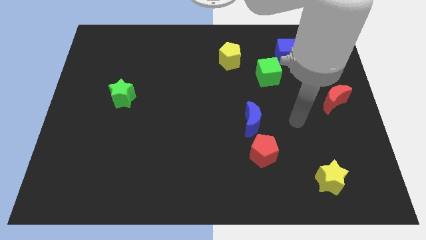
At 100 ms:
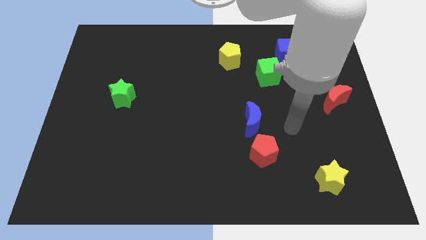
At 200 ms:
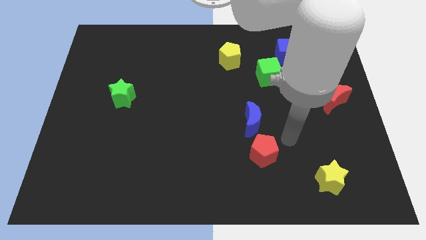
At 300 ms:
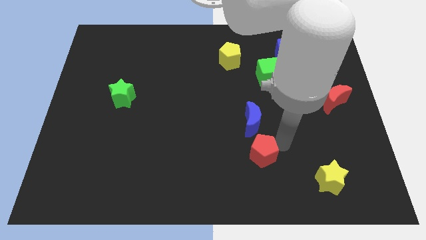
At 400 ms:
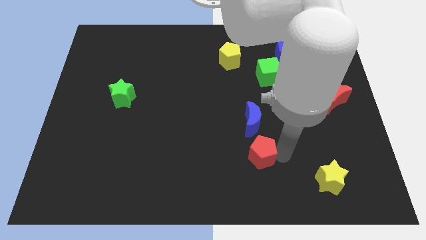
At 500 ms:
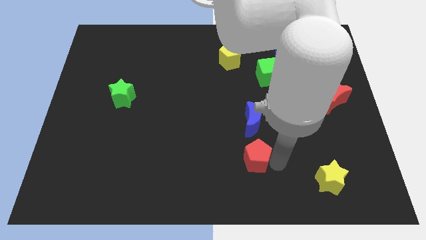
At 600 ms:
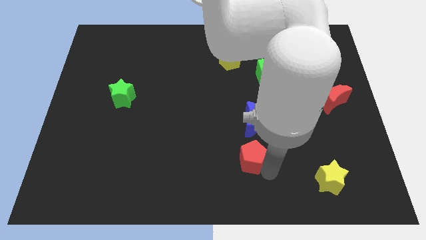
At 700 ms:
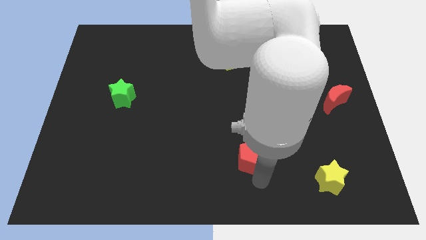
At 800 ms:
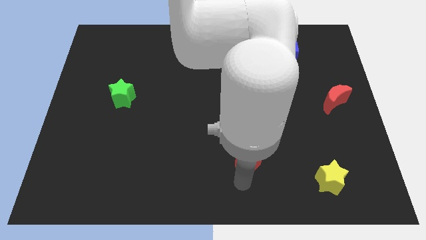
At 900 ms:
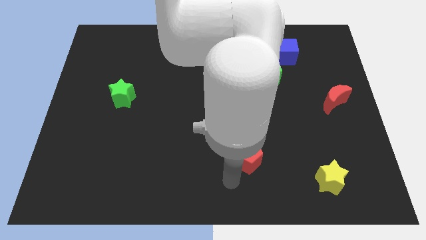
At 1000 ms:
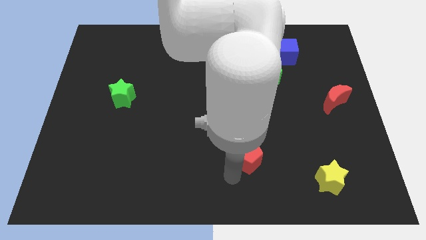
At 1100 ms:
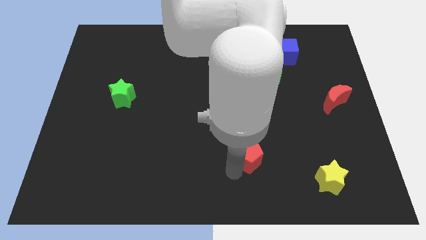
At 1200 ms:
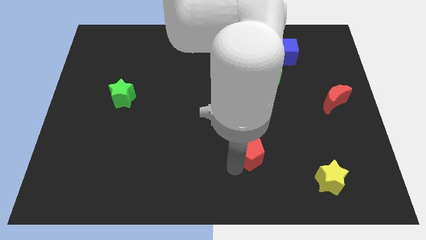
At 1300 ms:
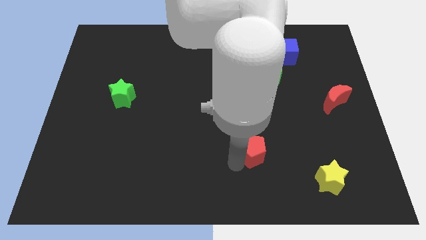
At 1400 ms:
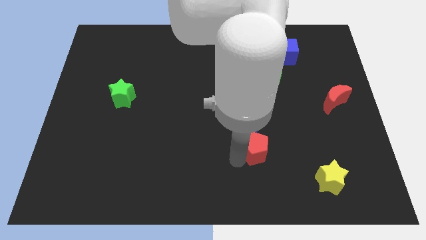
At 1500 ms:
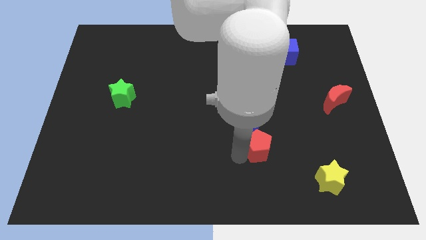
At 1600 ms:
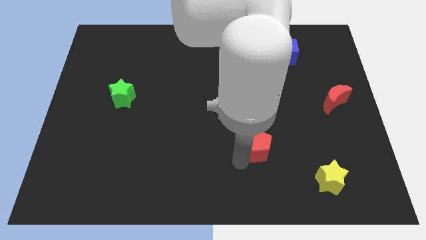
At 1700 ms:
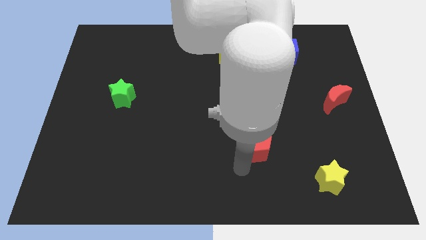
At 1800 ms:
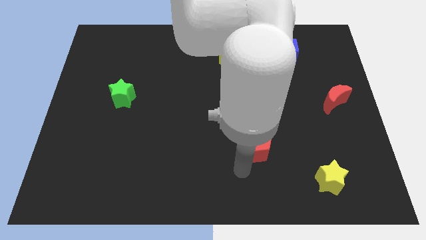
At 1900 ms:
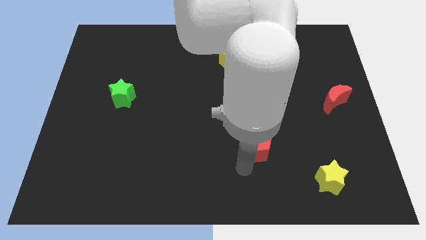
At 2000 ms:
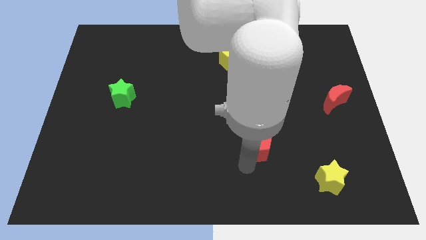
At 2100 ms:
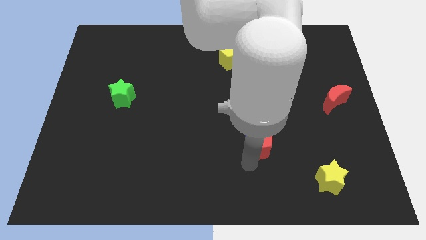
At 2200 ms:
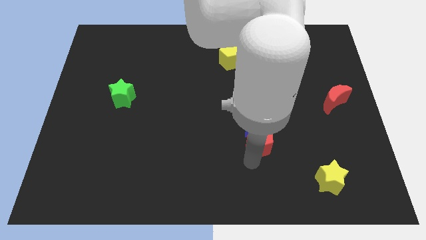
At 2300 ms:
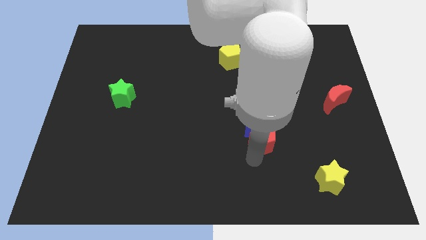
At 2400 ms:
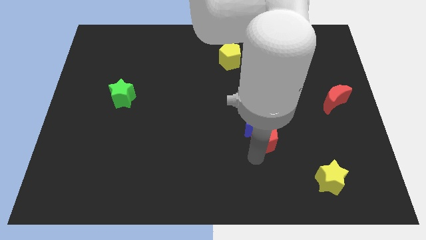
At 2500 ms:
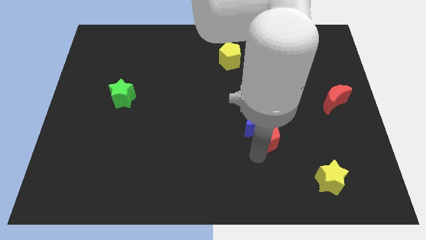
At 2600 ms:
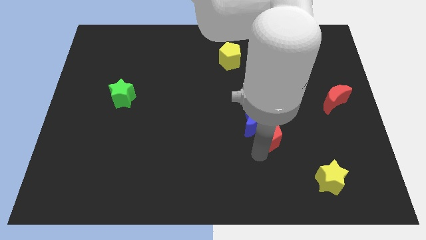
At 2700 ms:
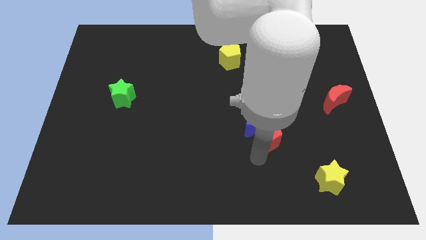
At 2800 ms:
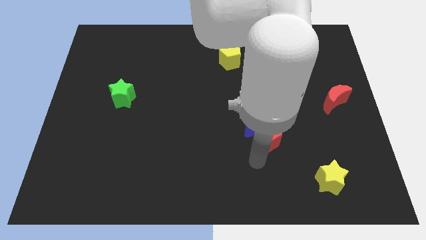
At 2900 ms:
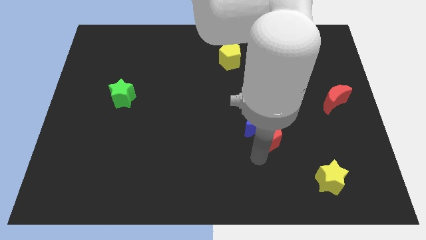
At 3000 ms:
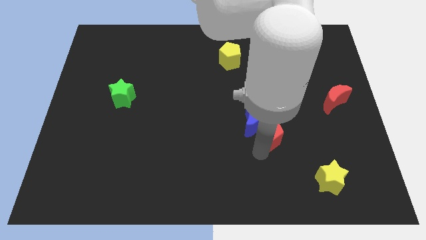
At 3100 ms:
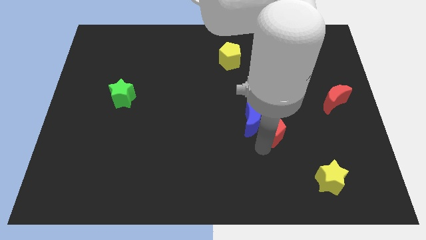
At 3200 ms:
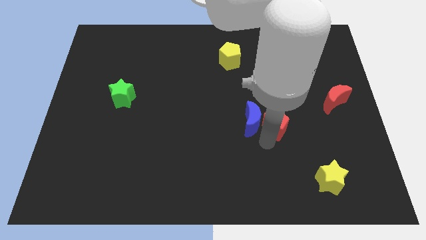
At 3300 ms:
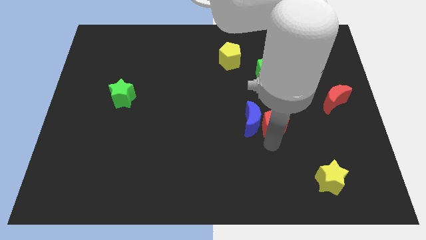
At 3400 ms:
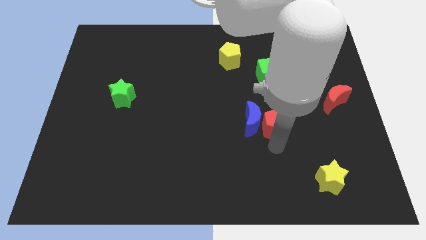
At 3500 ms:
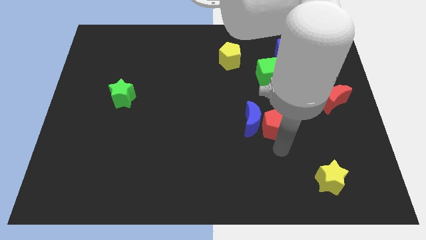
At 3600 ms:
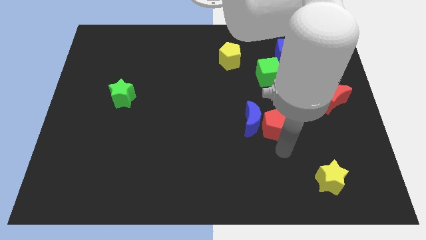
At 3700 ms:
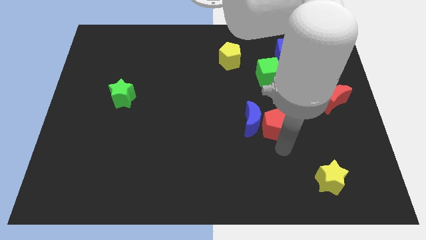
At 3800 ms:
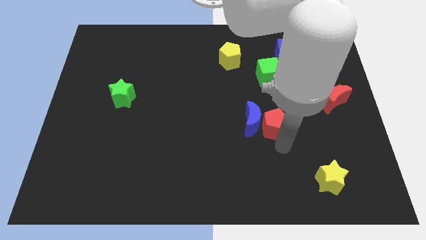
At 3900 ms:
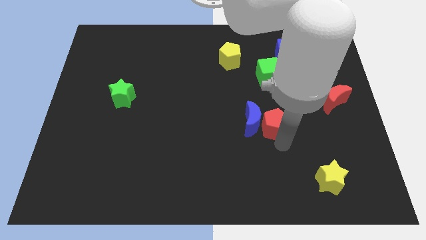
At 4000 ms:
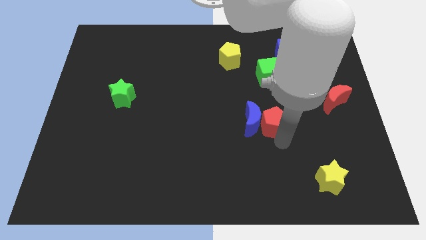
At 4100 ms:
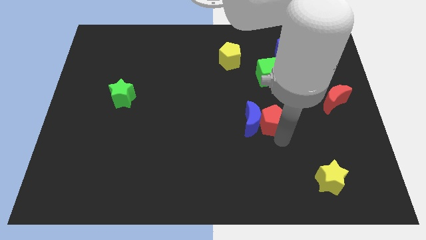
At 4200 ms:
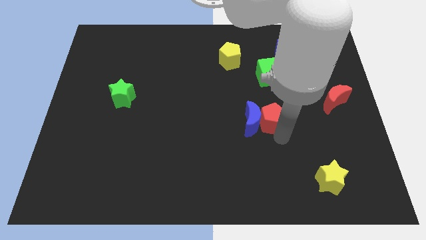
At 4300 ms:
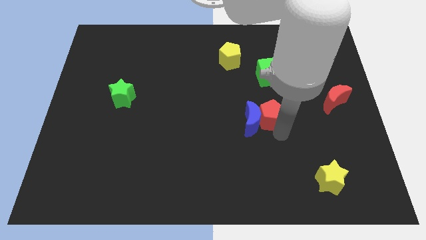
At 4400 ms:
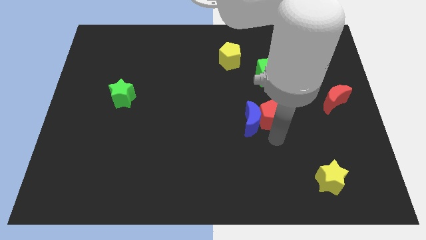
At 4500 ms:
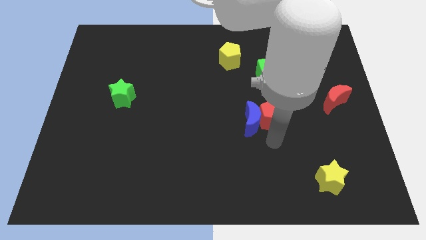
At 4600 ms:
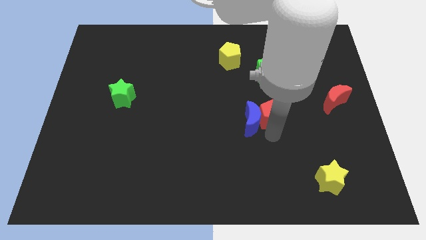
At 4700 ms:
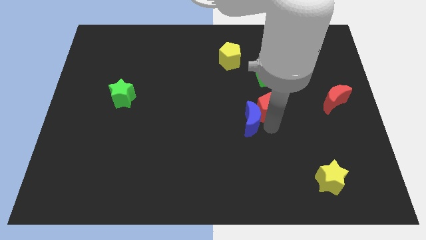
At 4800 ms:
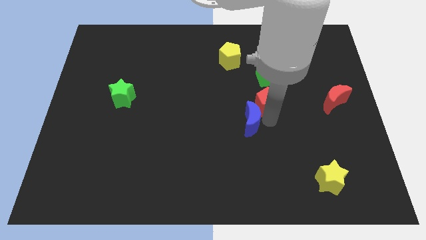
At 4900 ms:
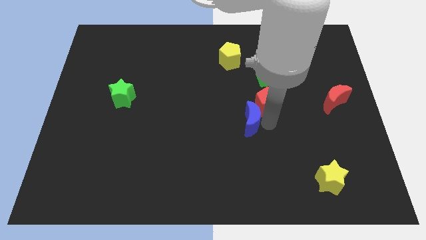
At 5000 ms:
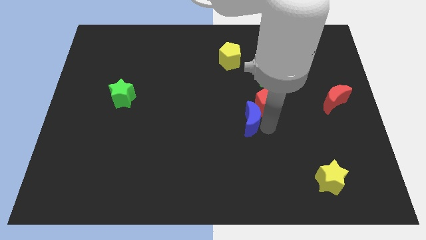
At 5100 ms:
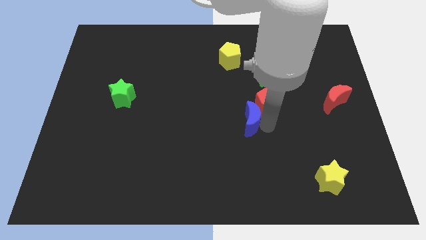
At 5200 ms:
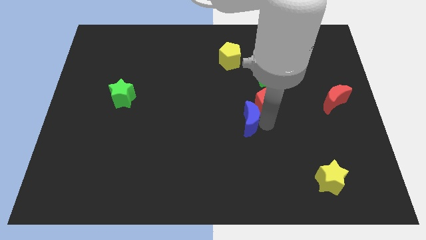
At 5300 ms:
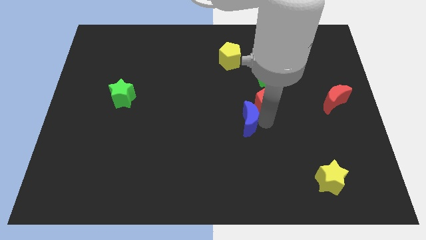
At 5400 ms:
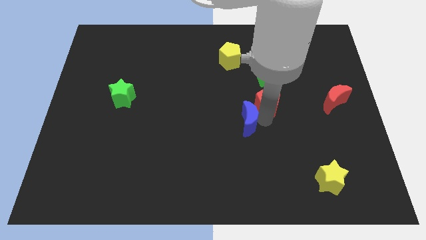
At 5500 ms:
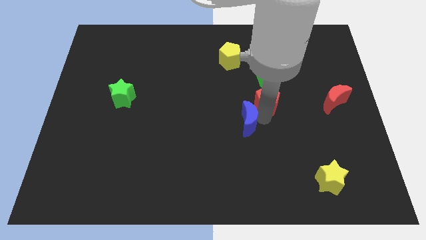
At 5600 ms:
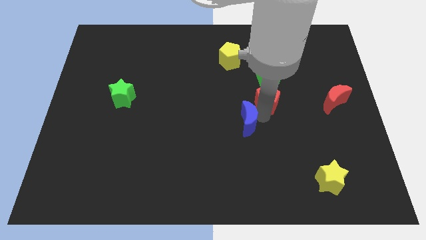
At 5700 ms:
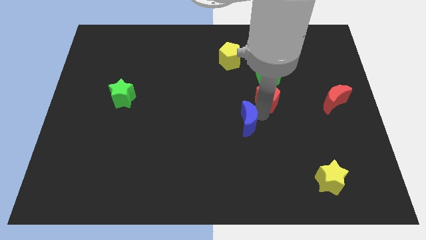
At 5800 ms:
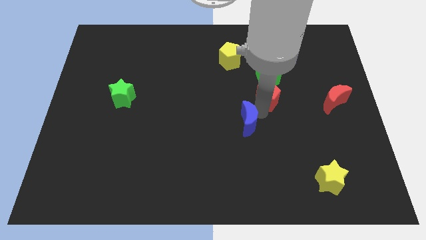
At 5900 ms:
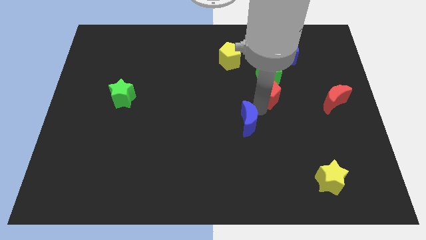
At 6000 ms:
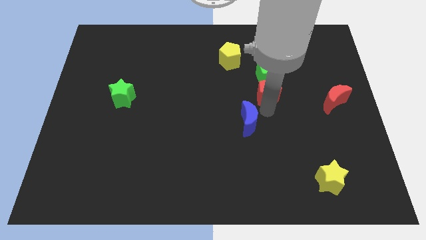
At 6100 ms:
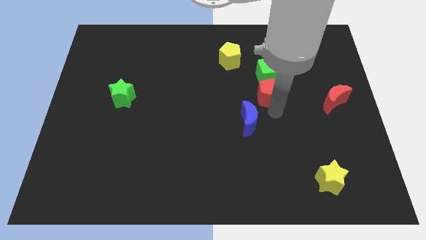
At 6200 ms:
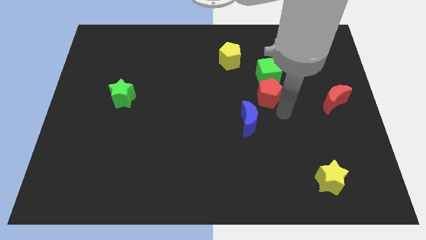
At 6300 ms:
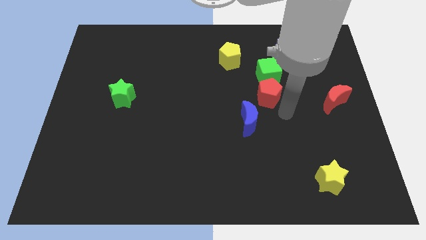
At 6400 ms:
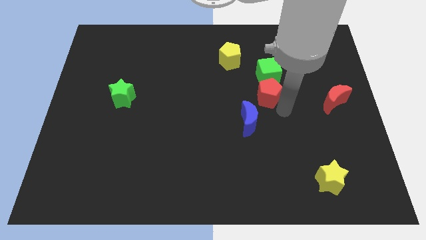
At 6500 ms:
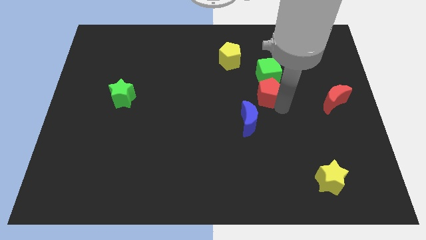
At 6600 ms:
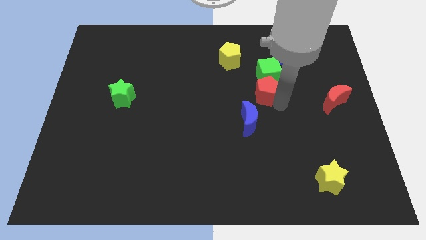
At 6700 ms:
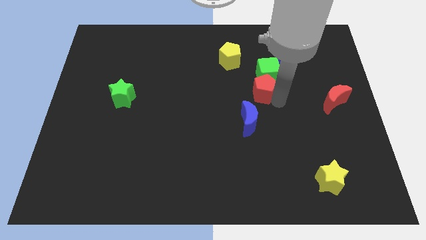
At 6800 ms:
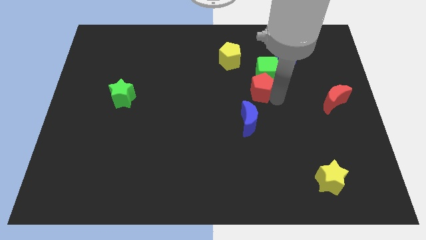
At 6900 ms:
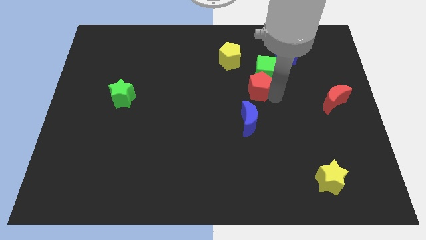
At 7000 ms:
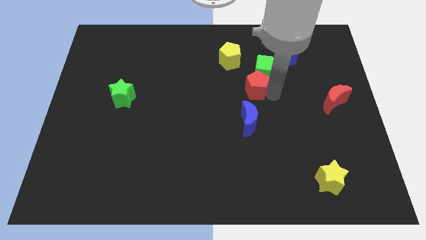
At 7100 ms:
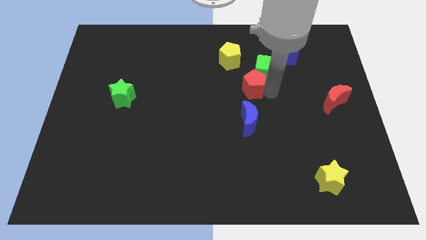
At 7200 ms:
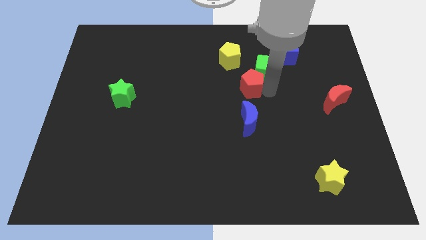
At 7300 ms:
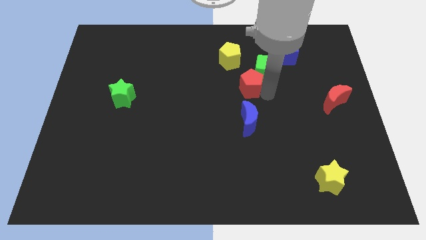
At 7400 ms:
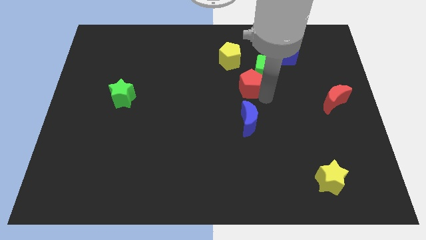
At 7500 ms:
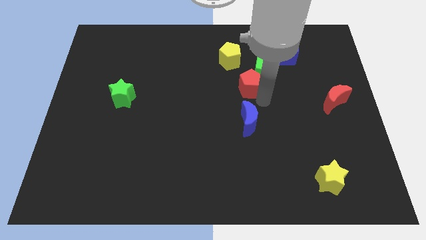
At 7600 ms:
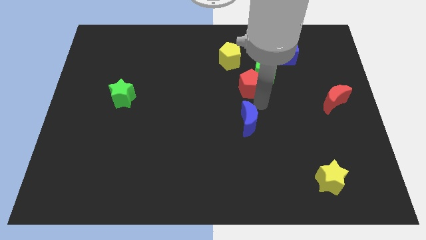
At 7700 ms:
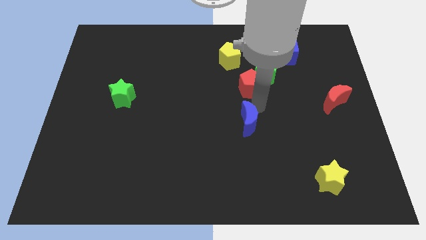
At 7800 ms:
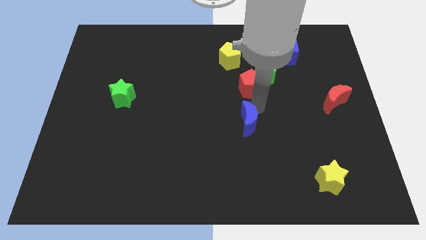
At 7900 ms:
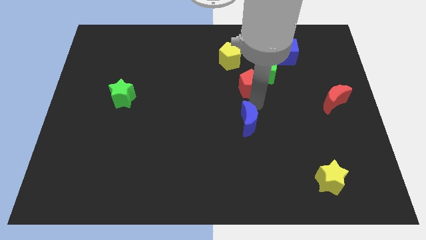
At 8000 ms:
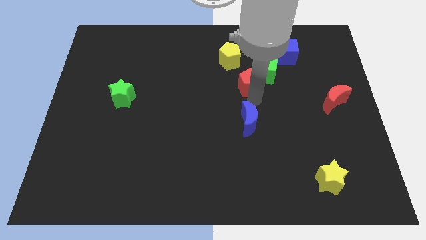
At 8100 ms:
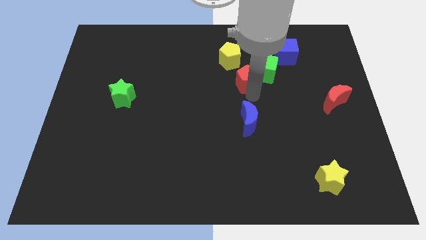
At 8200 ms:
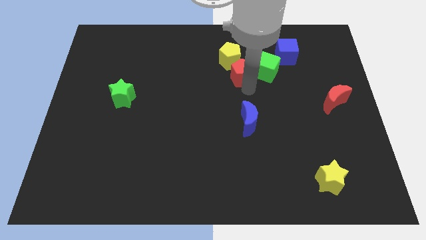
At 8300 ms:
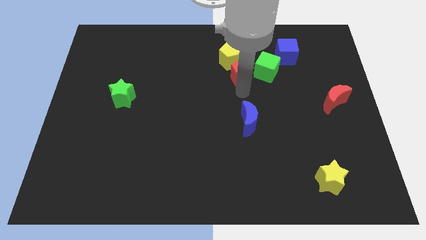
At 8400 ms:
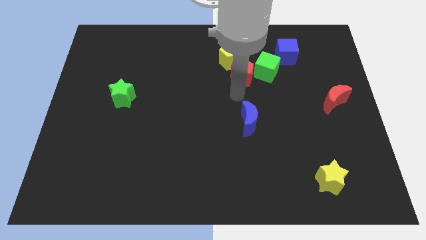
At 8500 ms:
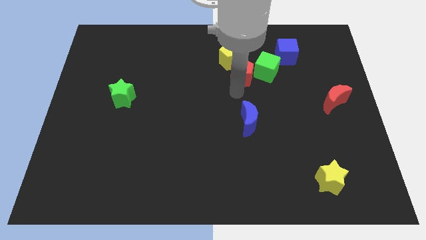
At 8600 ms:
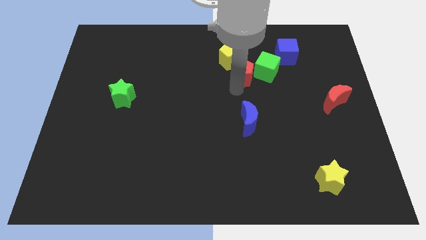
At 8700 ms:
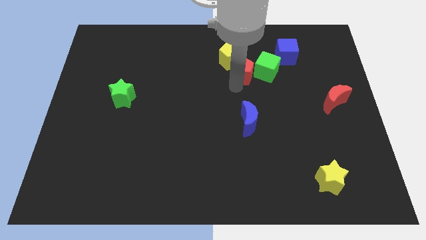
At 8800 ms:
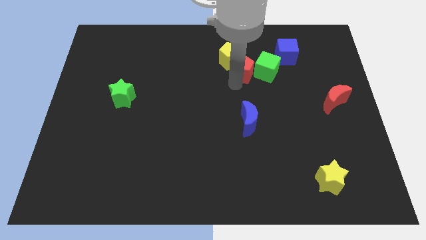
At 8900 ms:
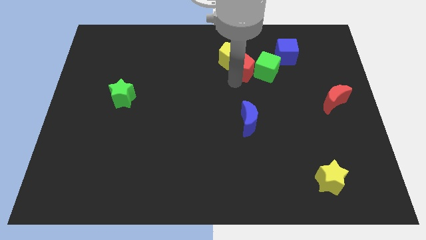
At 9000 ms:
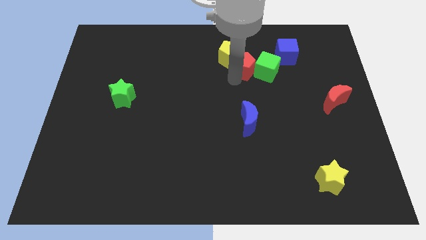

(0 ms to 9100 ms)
put the red pentagon to the left side of the blue cube
